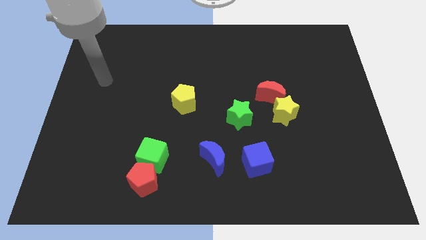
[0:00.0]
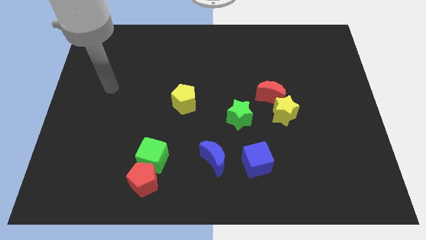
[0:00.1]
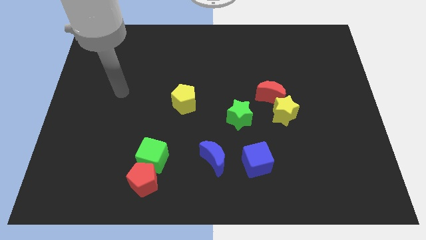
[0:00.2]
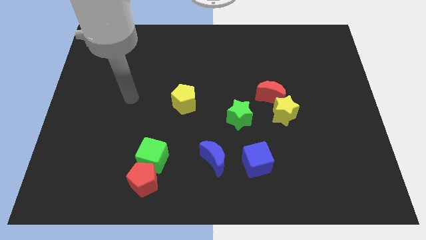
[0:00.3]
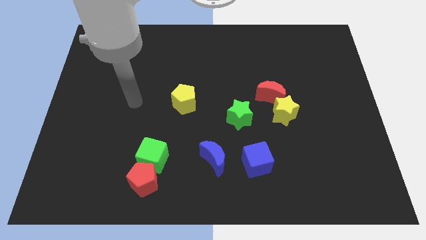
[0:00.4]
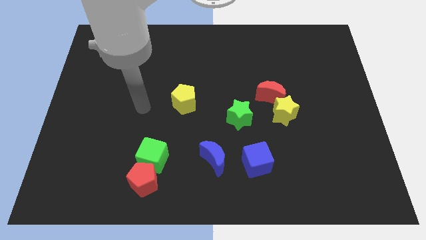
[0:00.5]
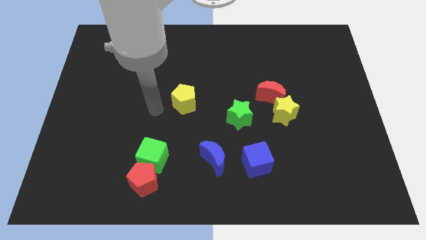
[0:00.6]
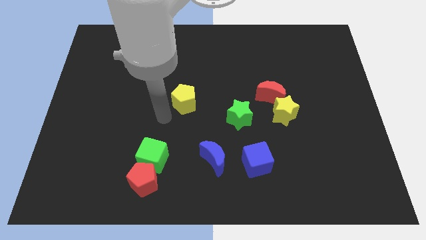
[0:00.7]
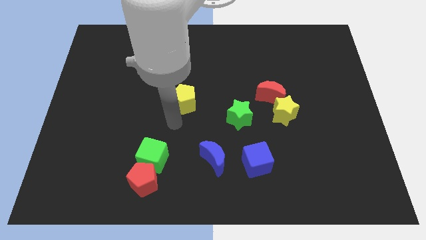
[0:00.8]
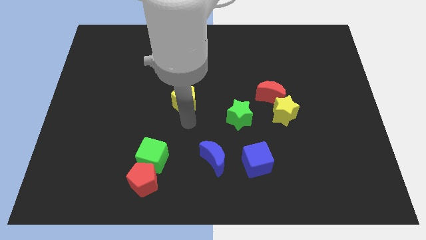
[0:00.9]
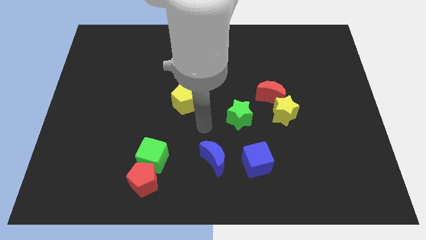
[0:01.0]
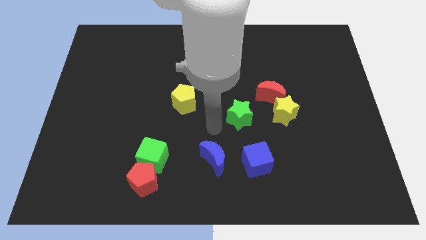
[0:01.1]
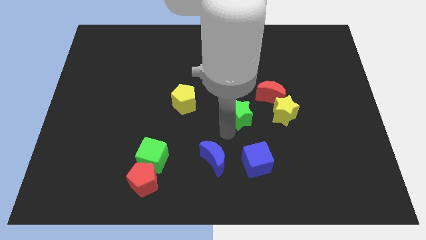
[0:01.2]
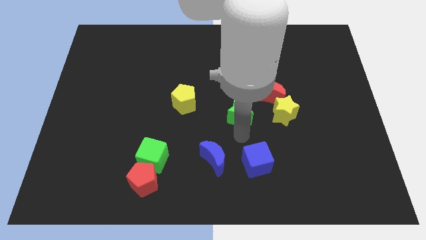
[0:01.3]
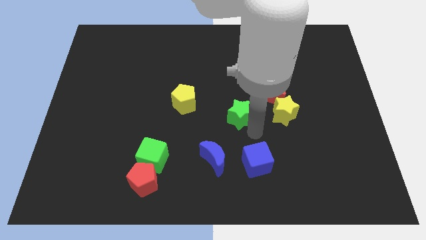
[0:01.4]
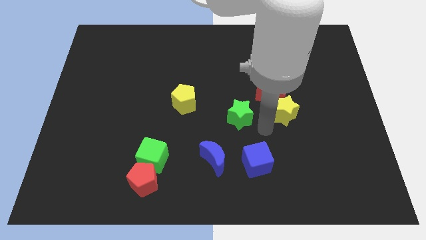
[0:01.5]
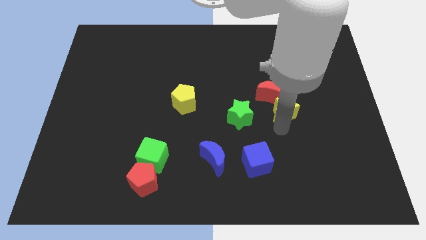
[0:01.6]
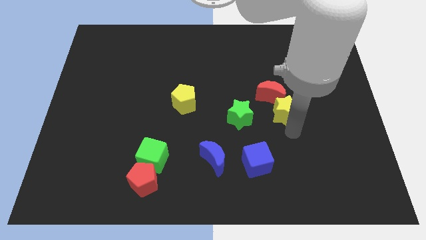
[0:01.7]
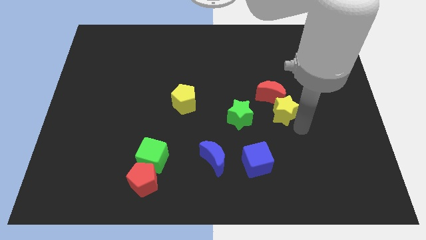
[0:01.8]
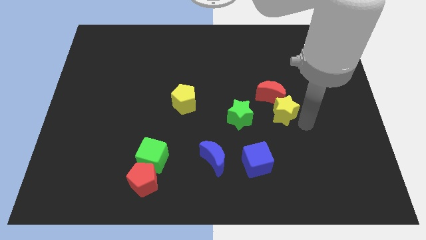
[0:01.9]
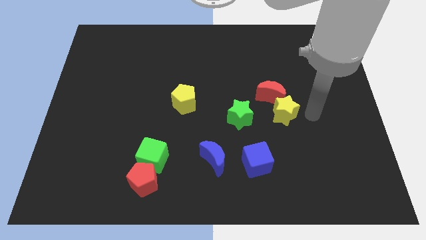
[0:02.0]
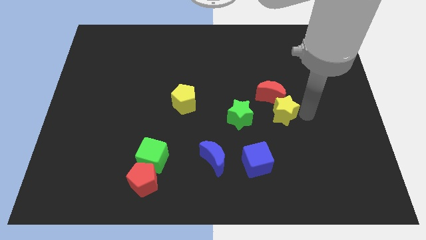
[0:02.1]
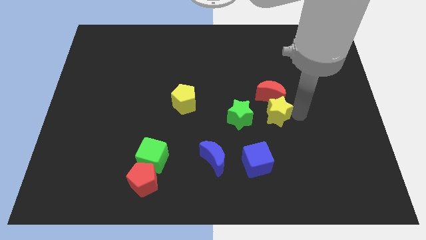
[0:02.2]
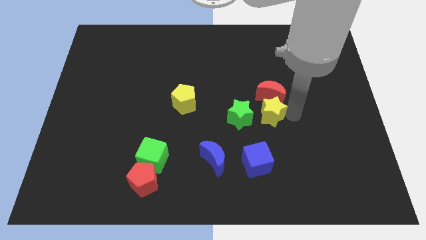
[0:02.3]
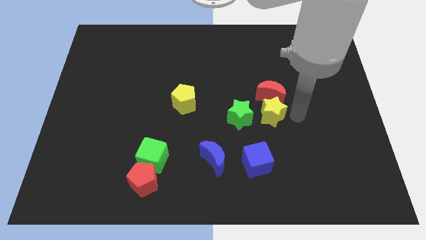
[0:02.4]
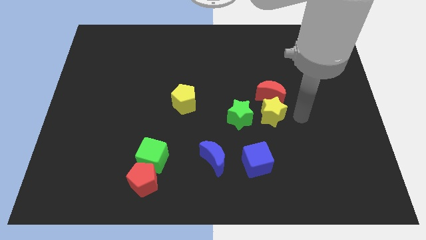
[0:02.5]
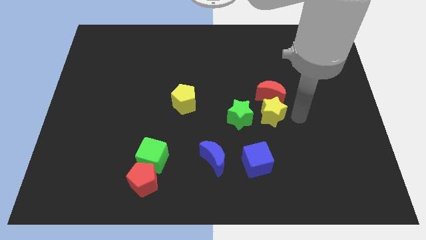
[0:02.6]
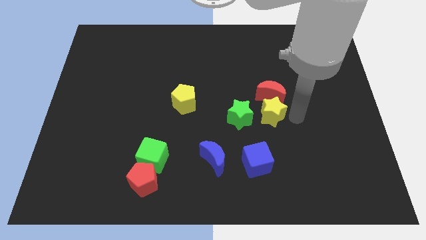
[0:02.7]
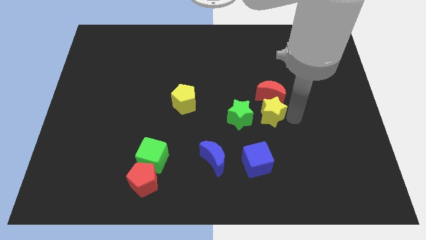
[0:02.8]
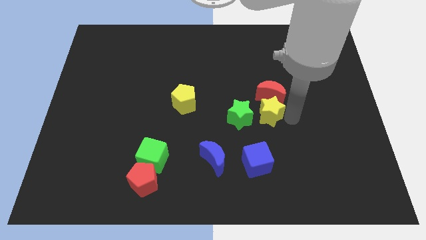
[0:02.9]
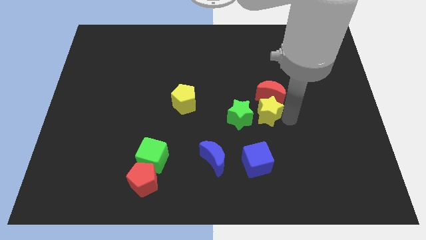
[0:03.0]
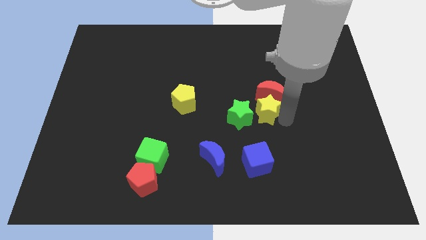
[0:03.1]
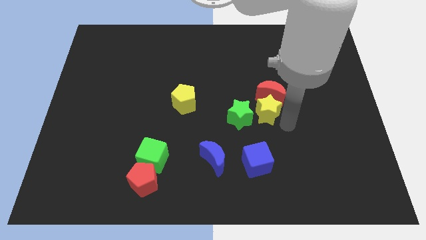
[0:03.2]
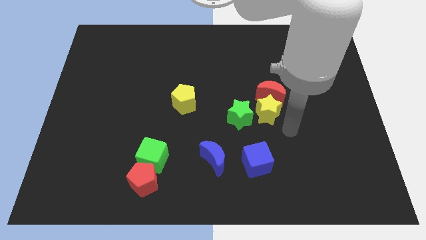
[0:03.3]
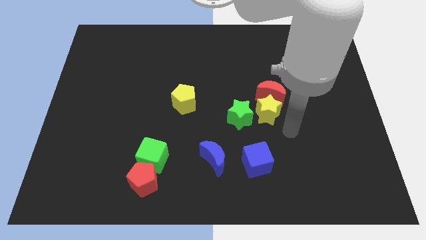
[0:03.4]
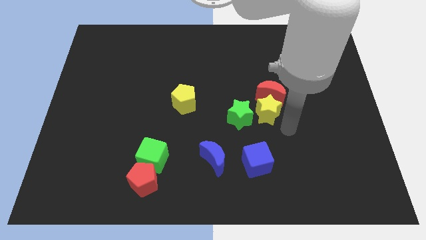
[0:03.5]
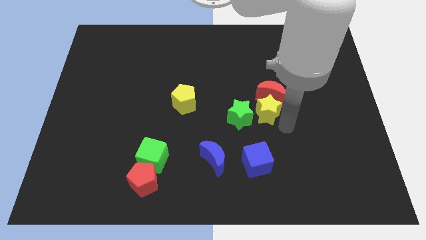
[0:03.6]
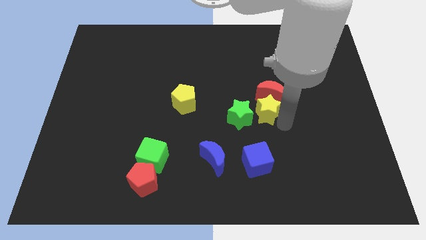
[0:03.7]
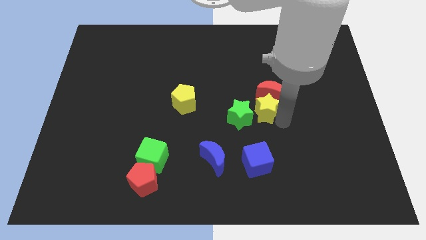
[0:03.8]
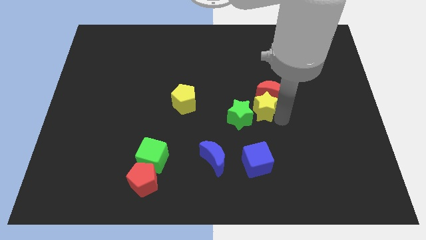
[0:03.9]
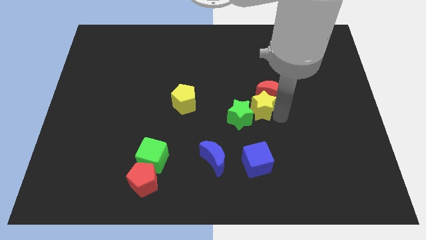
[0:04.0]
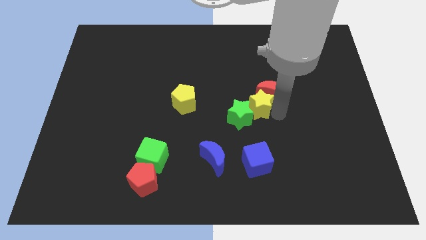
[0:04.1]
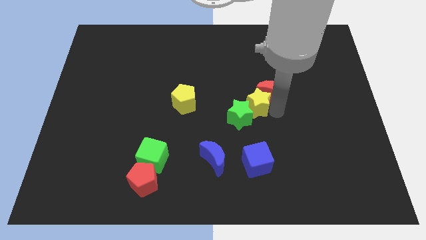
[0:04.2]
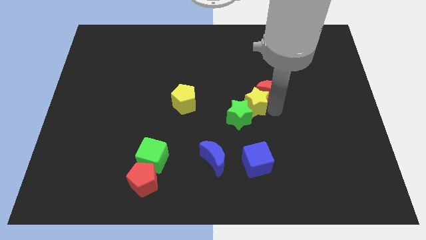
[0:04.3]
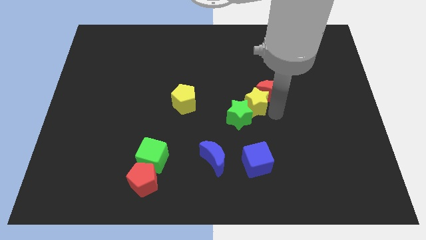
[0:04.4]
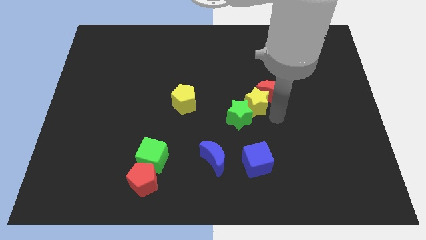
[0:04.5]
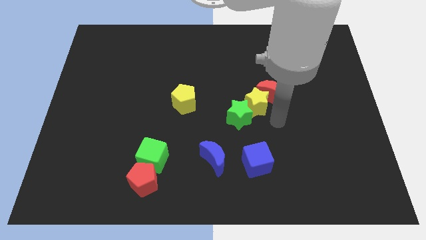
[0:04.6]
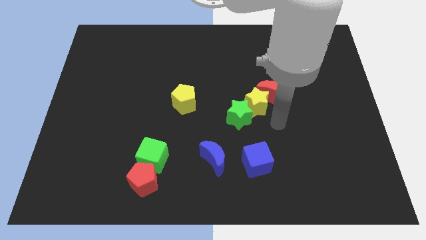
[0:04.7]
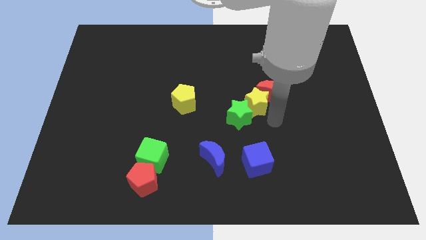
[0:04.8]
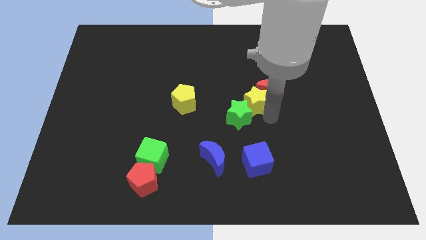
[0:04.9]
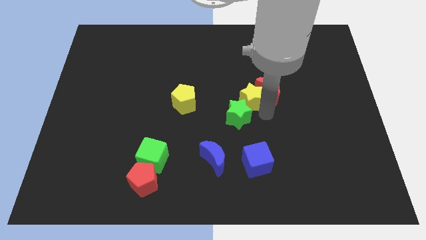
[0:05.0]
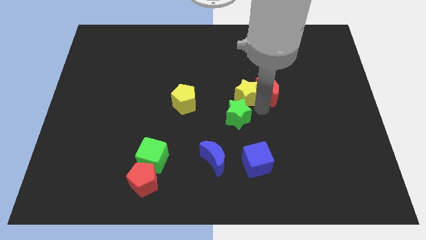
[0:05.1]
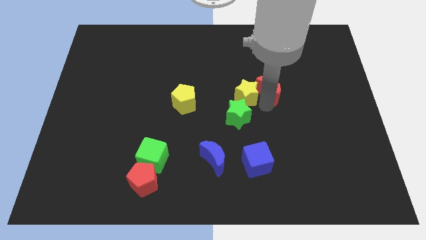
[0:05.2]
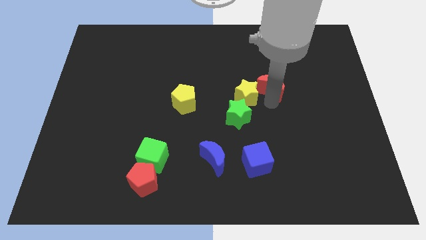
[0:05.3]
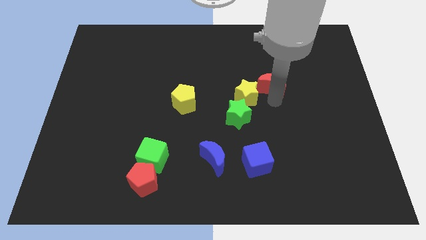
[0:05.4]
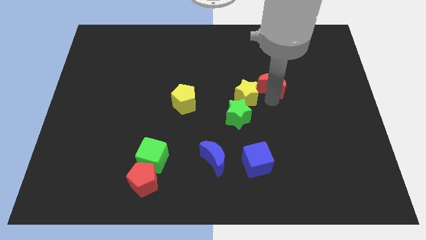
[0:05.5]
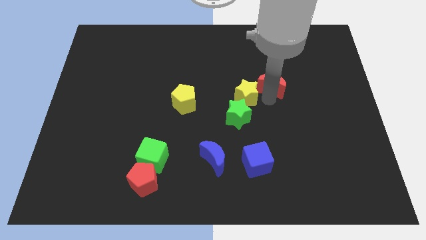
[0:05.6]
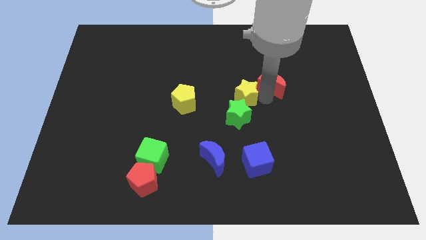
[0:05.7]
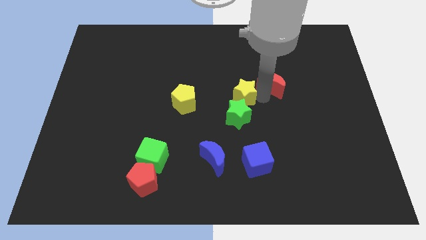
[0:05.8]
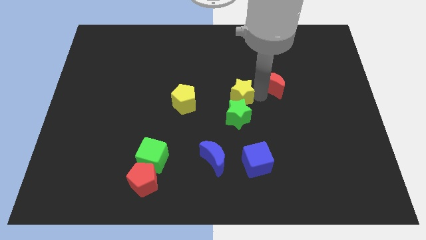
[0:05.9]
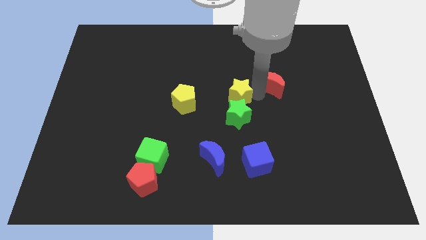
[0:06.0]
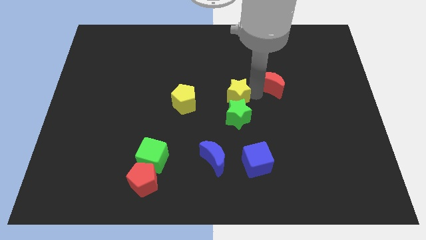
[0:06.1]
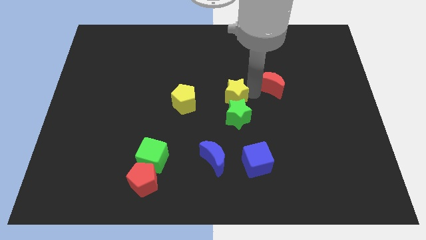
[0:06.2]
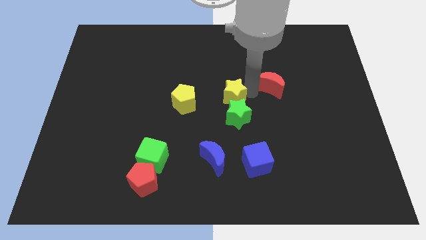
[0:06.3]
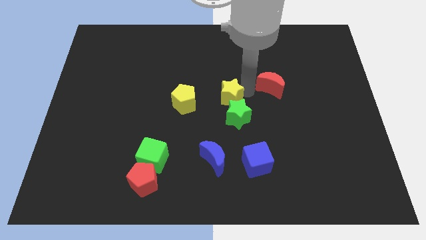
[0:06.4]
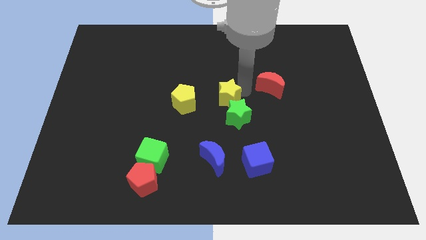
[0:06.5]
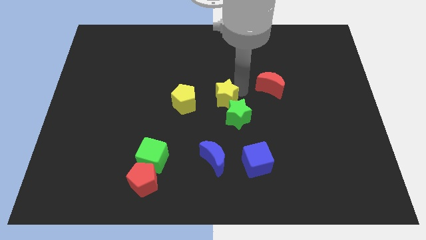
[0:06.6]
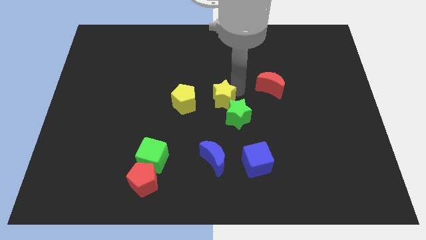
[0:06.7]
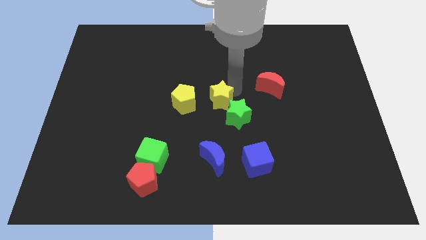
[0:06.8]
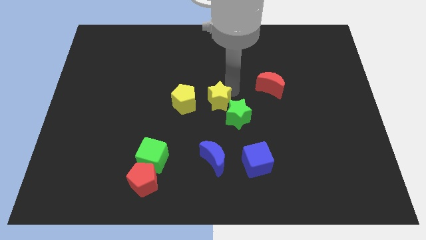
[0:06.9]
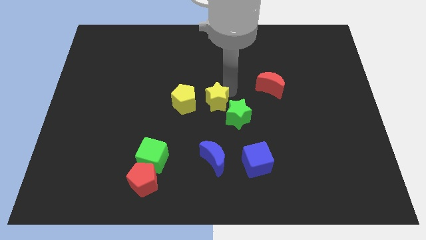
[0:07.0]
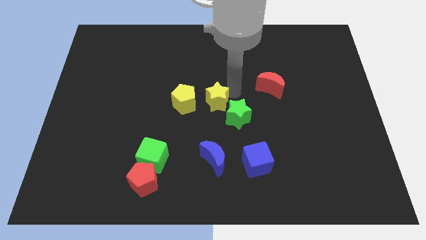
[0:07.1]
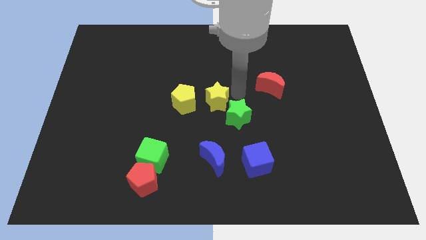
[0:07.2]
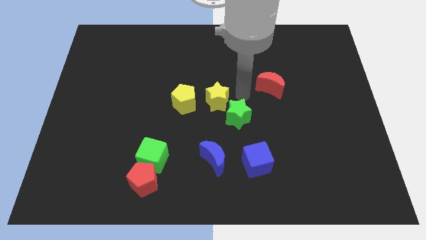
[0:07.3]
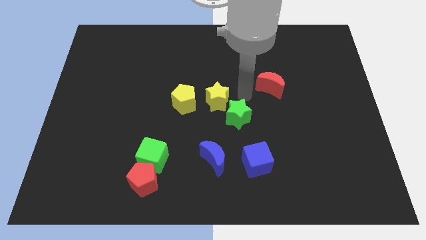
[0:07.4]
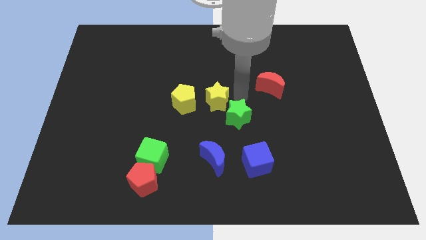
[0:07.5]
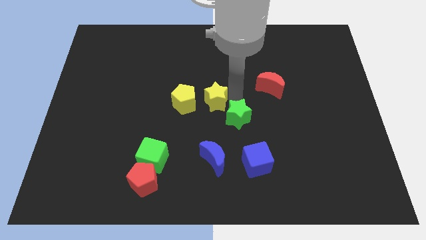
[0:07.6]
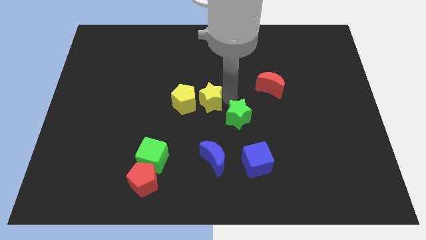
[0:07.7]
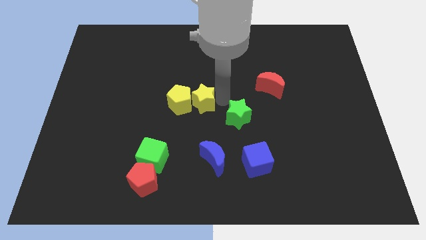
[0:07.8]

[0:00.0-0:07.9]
slide the yellow star next to the yellow pentagon
